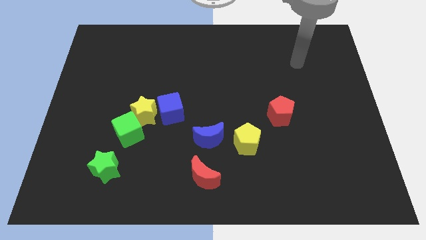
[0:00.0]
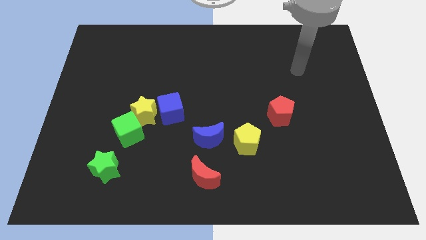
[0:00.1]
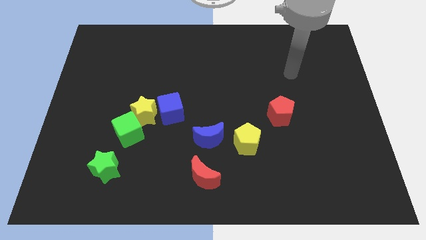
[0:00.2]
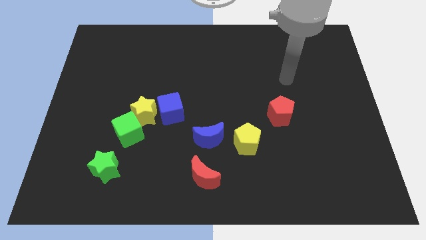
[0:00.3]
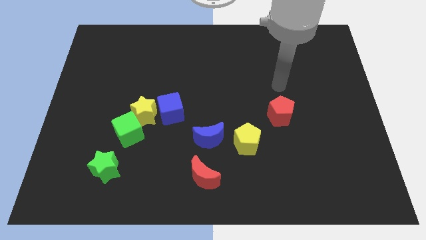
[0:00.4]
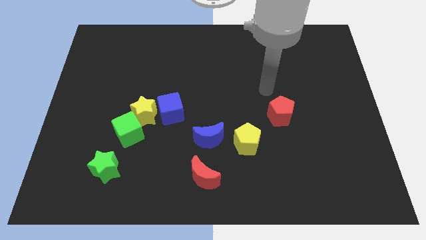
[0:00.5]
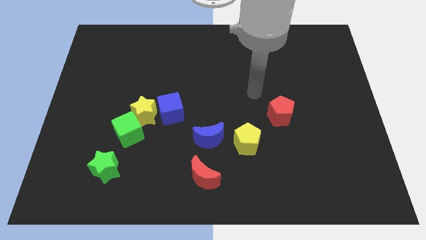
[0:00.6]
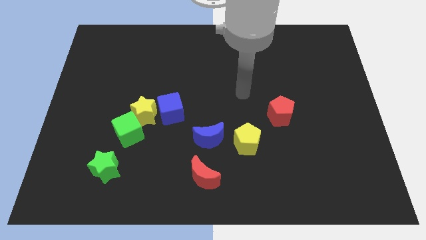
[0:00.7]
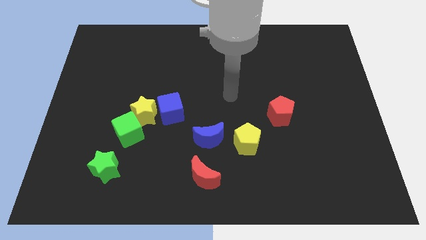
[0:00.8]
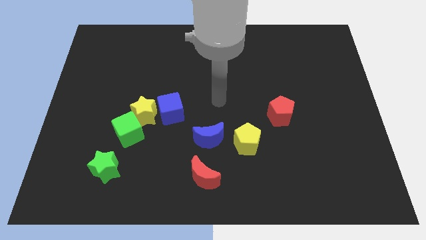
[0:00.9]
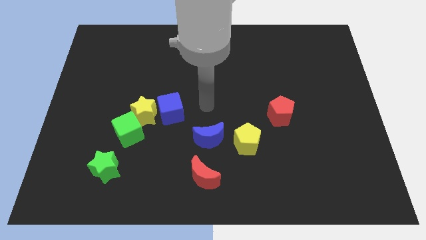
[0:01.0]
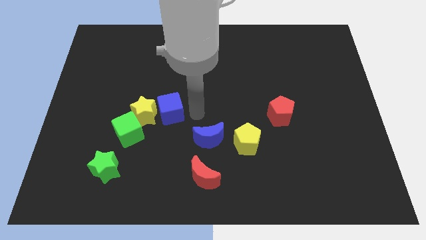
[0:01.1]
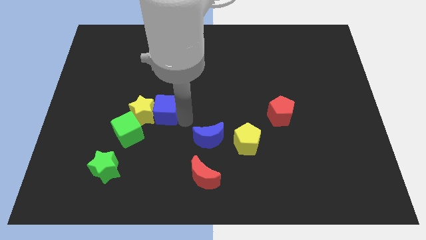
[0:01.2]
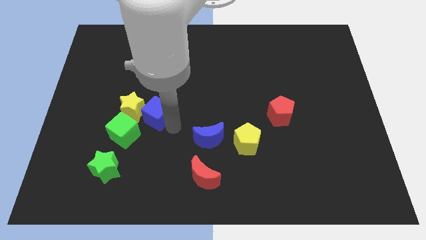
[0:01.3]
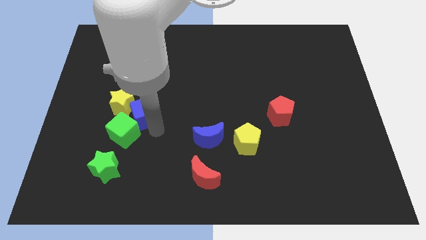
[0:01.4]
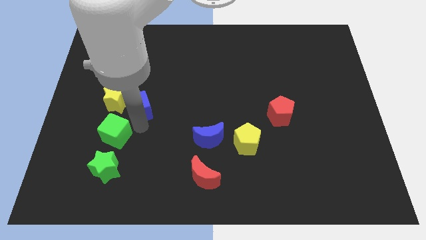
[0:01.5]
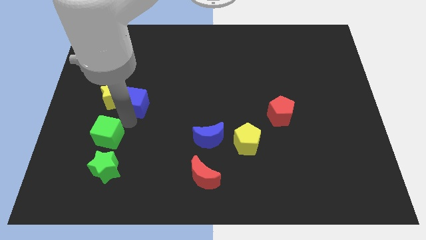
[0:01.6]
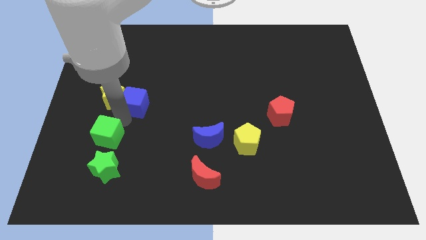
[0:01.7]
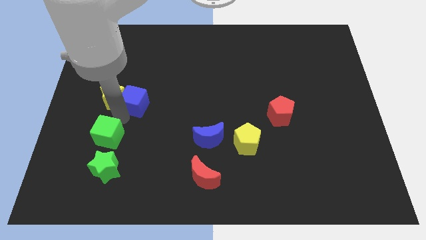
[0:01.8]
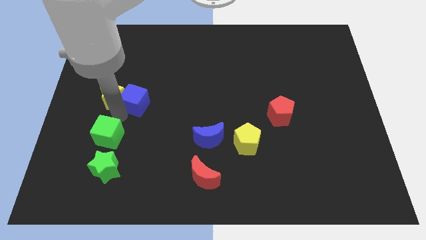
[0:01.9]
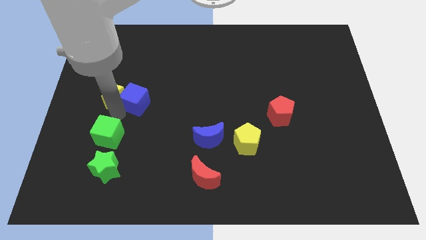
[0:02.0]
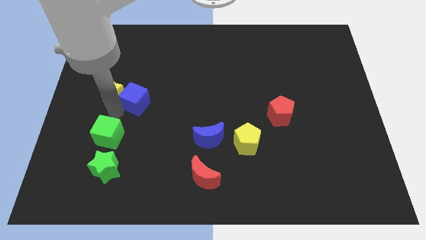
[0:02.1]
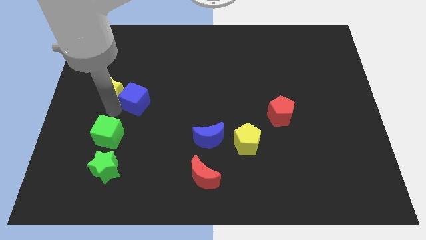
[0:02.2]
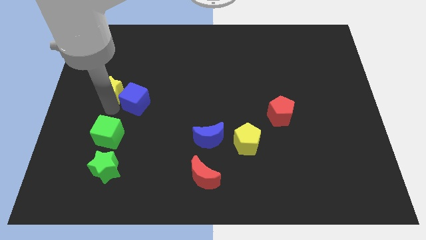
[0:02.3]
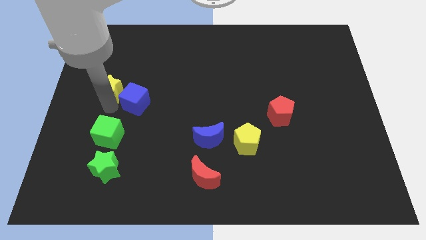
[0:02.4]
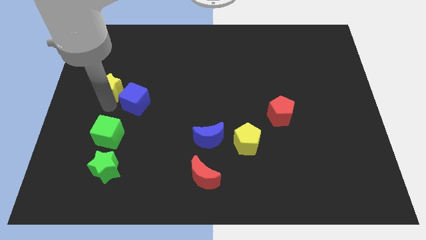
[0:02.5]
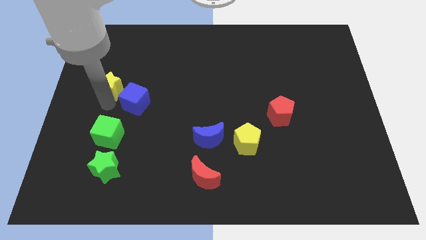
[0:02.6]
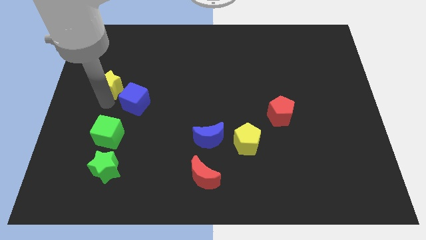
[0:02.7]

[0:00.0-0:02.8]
pull the yellow star apart from the green cube and blue cube

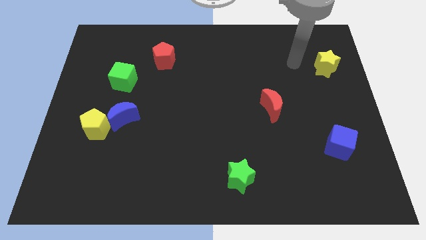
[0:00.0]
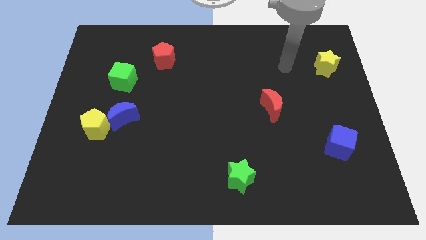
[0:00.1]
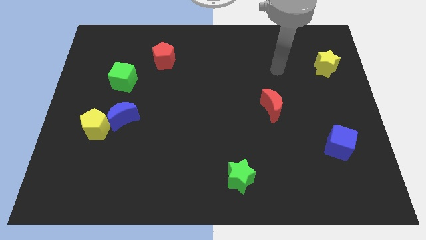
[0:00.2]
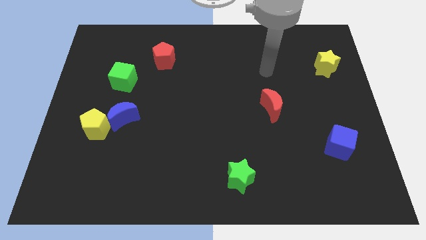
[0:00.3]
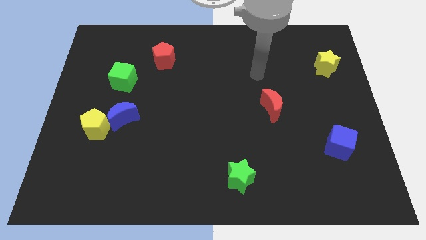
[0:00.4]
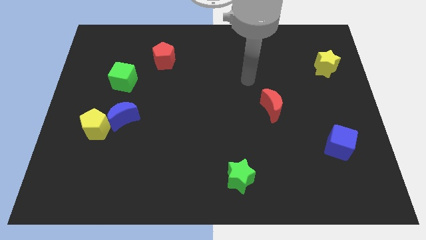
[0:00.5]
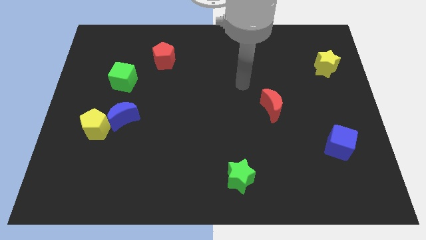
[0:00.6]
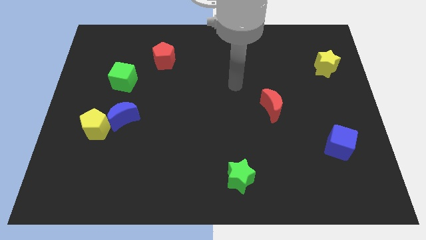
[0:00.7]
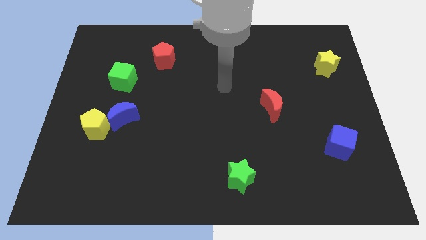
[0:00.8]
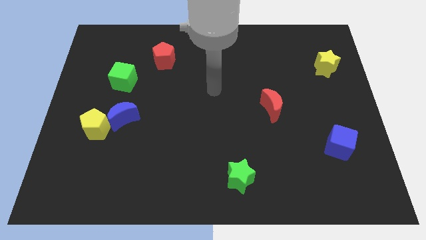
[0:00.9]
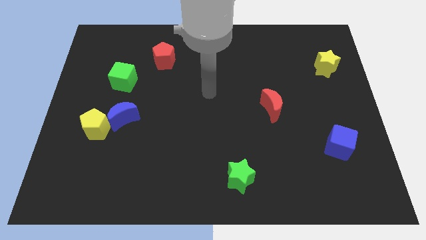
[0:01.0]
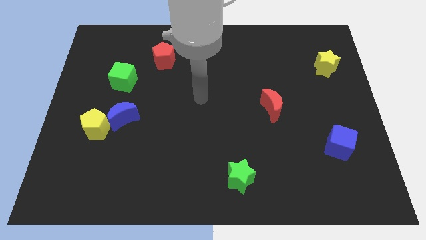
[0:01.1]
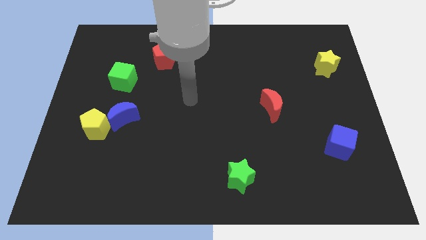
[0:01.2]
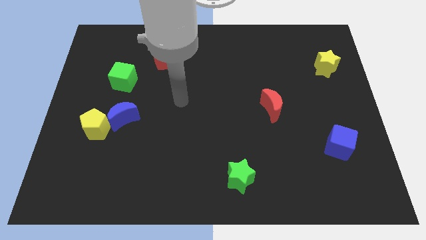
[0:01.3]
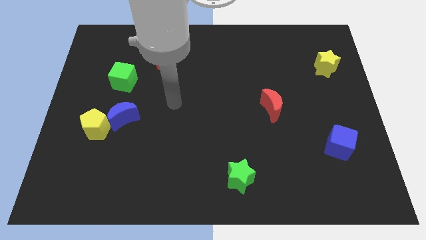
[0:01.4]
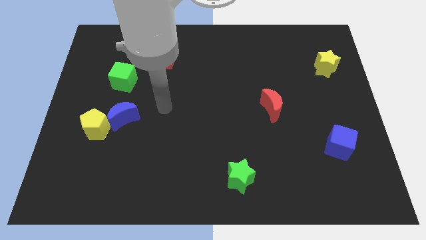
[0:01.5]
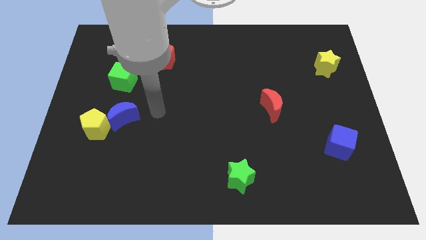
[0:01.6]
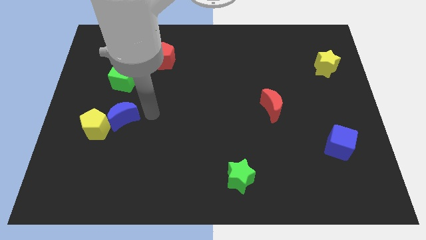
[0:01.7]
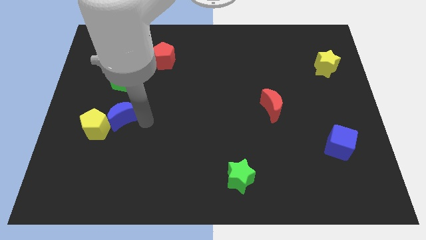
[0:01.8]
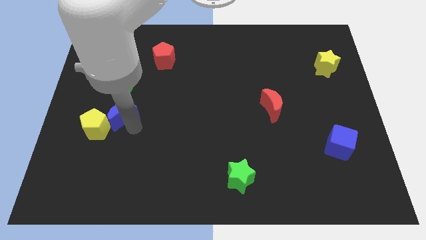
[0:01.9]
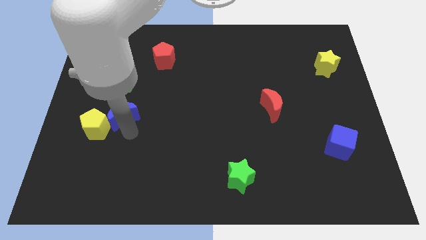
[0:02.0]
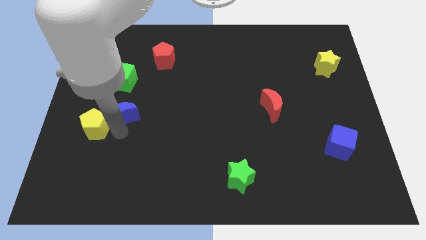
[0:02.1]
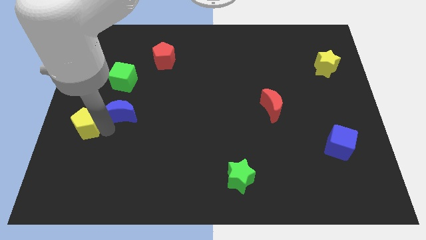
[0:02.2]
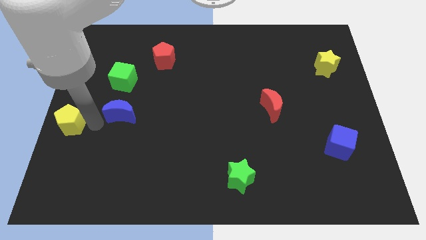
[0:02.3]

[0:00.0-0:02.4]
pull the blue moon apart from the yellow pentagon

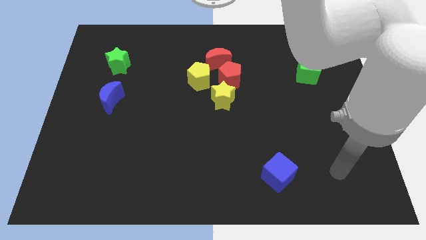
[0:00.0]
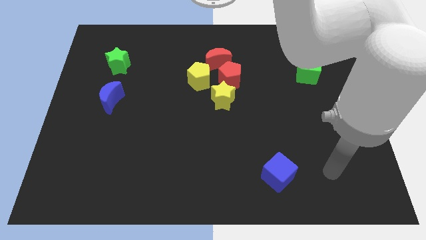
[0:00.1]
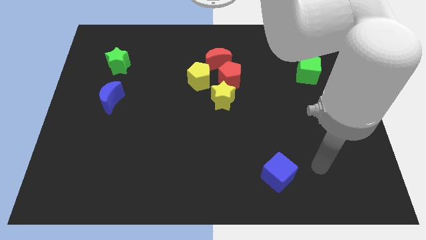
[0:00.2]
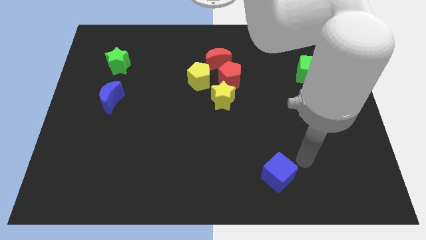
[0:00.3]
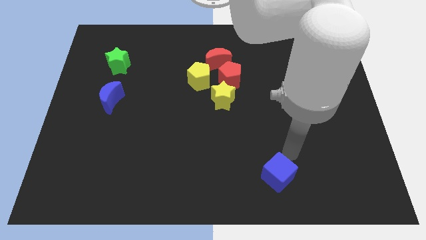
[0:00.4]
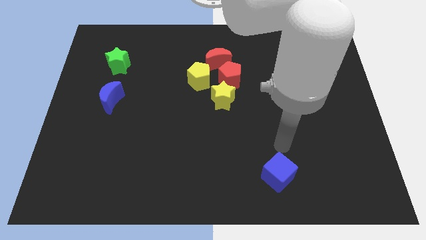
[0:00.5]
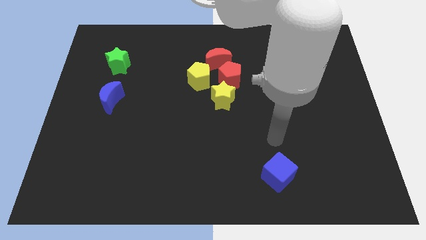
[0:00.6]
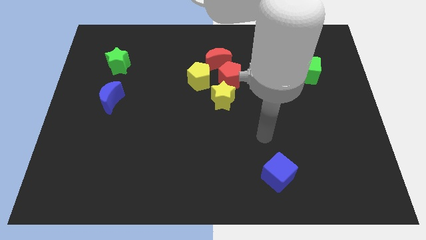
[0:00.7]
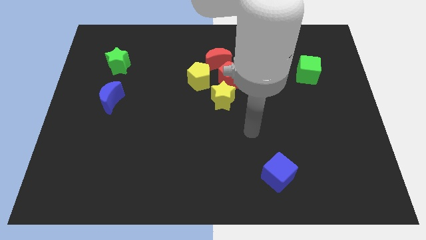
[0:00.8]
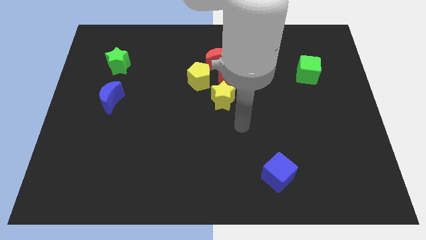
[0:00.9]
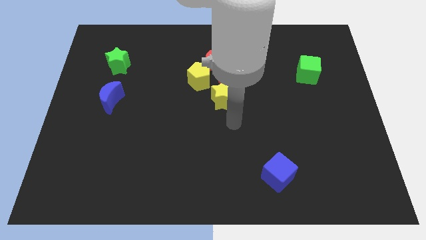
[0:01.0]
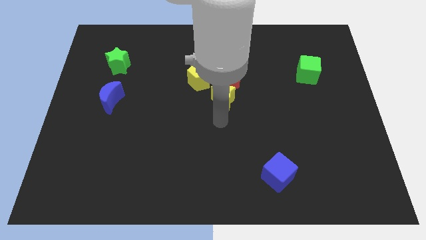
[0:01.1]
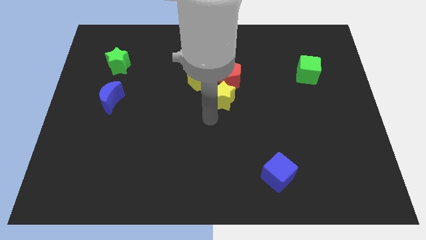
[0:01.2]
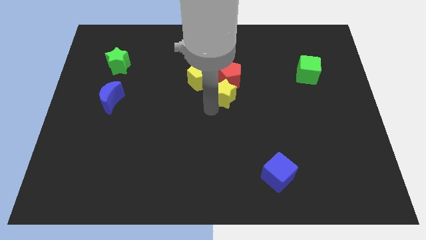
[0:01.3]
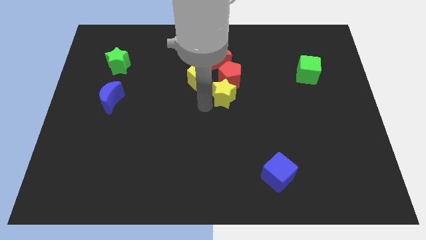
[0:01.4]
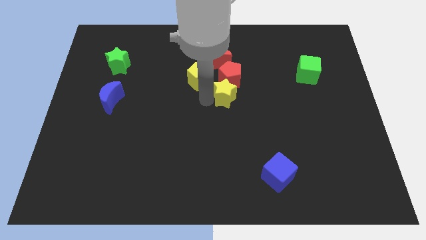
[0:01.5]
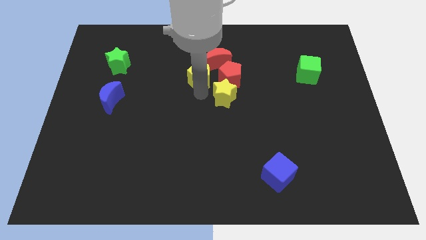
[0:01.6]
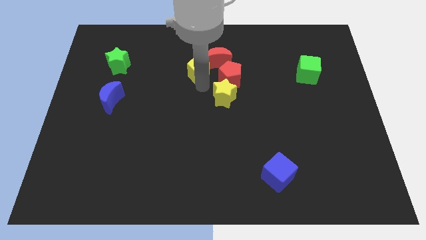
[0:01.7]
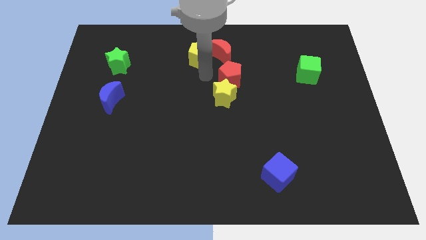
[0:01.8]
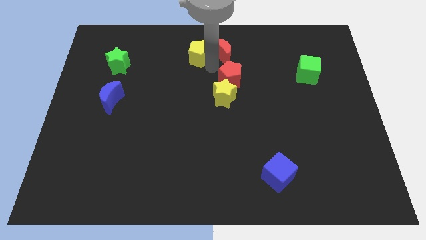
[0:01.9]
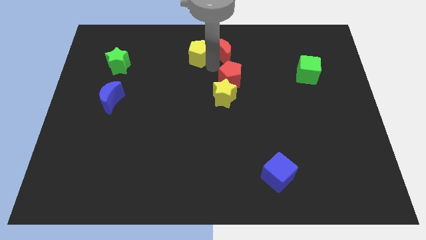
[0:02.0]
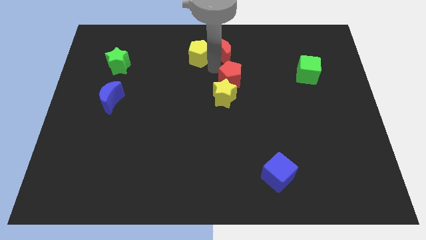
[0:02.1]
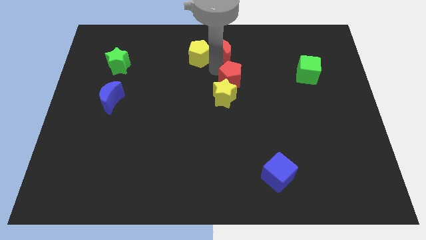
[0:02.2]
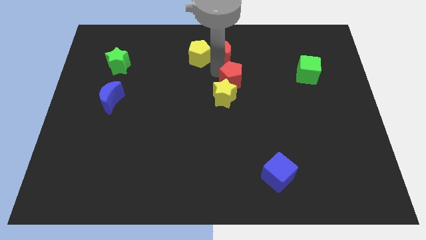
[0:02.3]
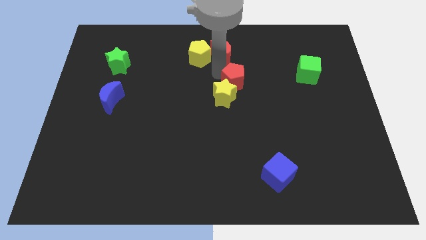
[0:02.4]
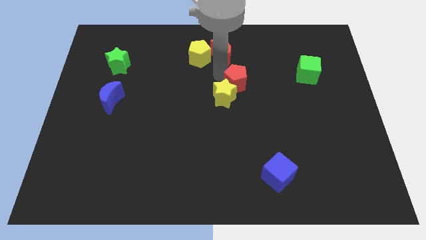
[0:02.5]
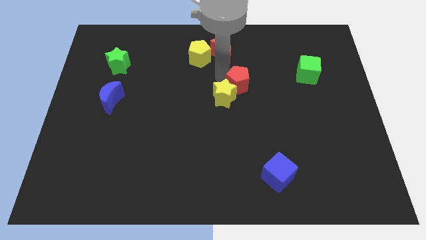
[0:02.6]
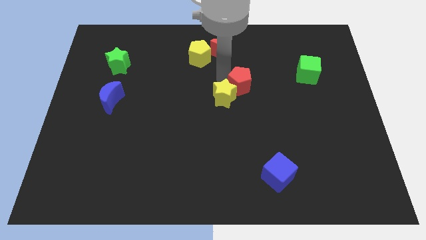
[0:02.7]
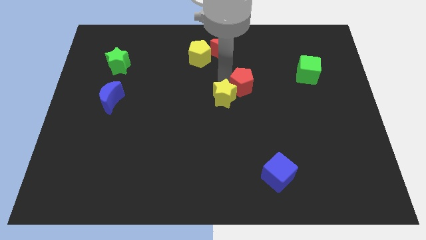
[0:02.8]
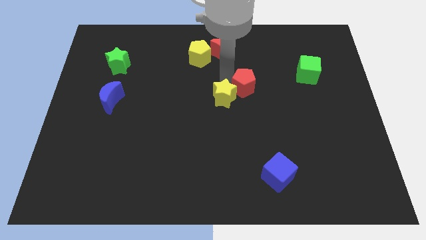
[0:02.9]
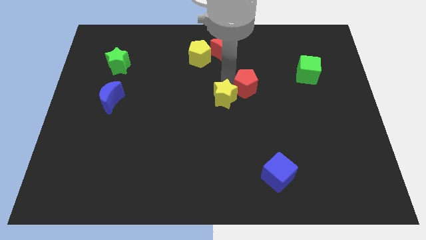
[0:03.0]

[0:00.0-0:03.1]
pull the red pentagon apart from the yellow star, red moon, and yellow pentagon

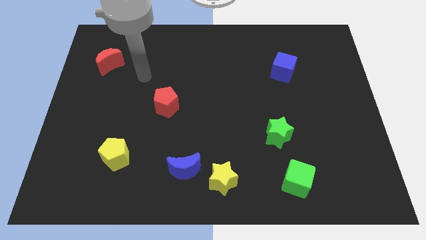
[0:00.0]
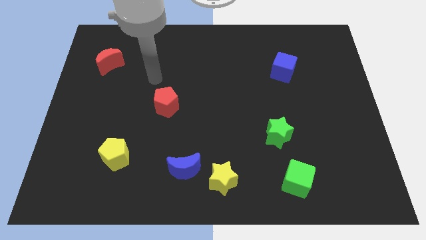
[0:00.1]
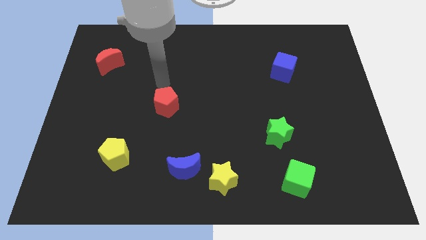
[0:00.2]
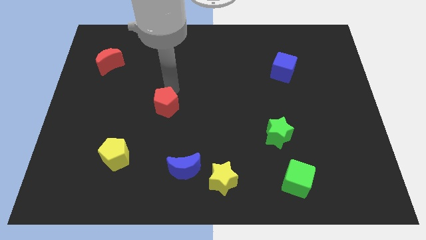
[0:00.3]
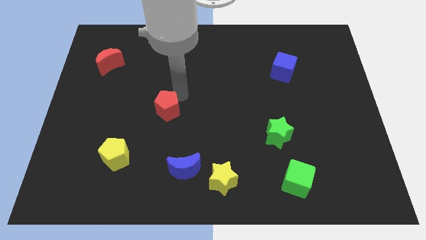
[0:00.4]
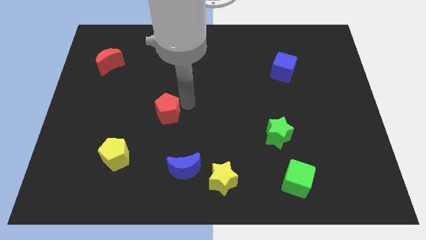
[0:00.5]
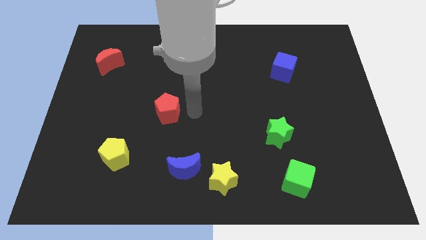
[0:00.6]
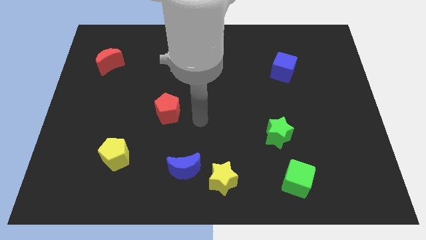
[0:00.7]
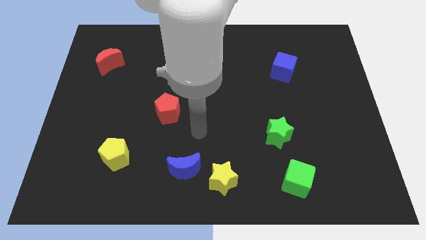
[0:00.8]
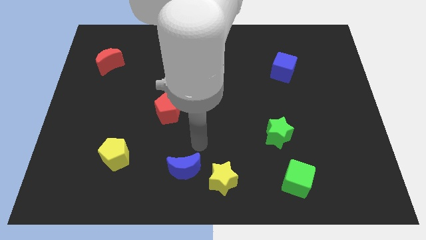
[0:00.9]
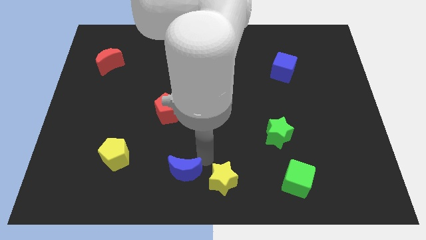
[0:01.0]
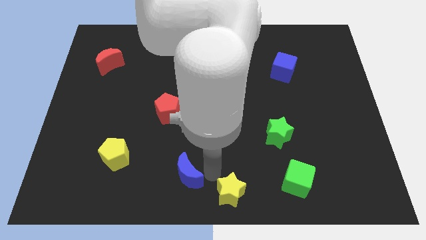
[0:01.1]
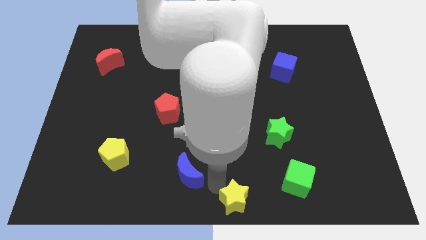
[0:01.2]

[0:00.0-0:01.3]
pull the blue moon apart from the yellow star
